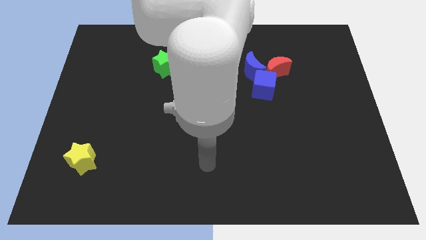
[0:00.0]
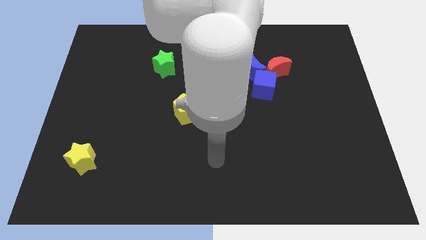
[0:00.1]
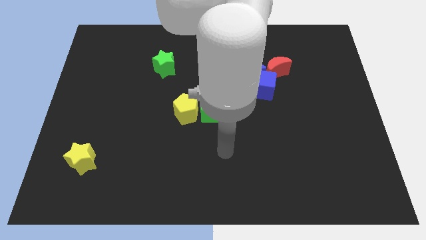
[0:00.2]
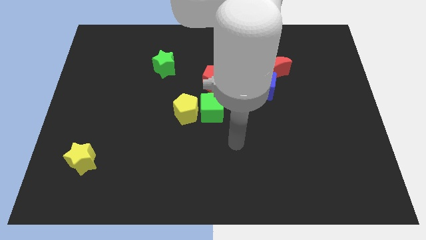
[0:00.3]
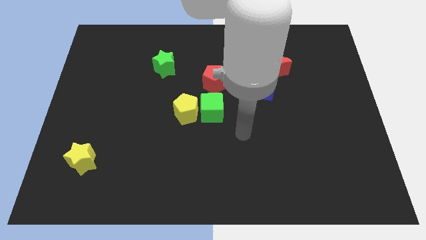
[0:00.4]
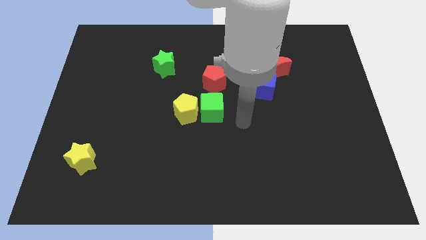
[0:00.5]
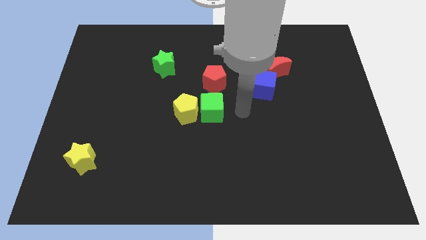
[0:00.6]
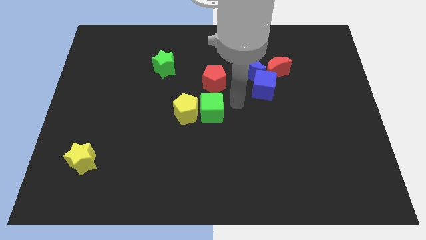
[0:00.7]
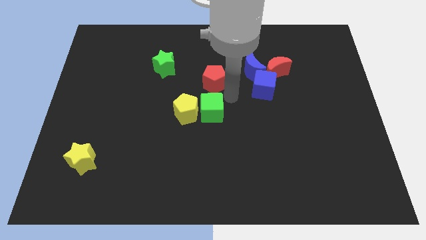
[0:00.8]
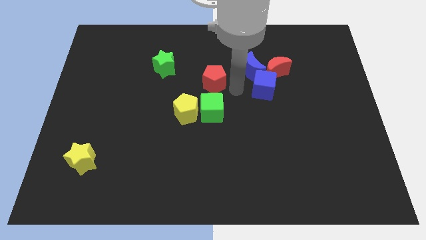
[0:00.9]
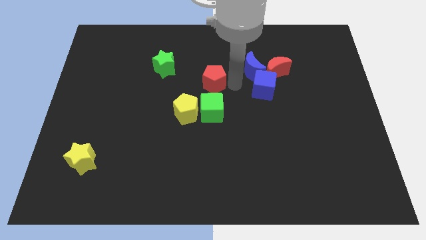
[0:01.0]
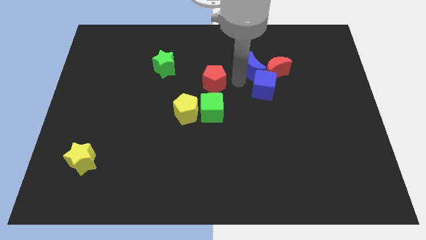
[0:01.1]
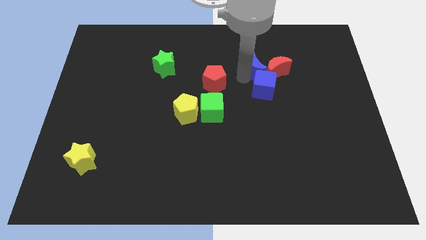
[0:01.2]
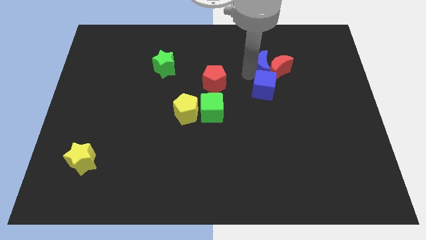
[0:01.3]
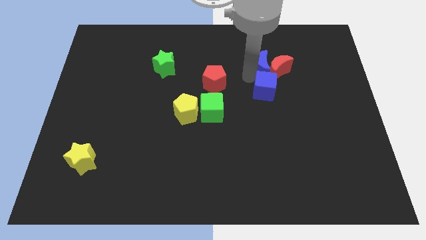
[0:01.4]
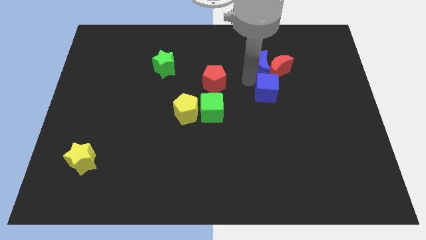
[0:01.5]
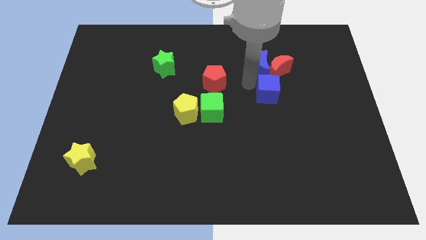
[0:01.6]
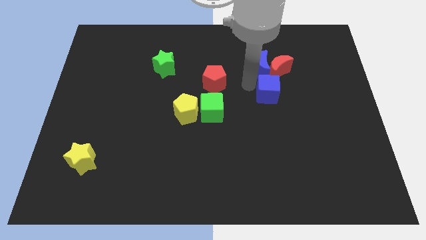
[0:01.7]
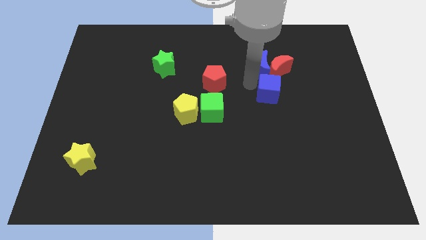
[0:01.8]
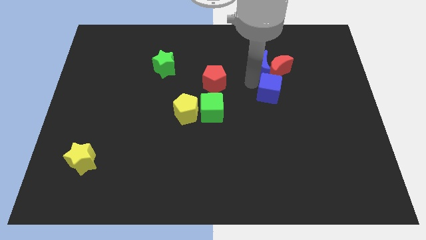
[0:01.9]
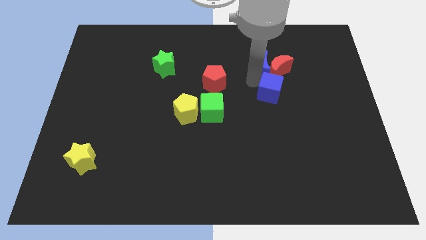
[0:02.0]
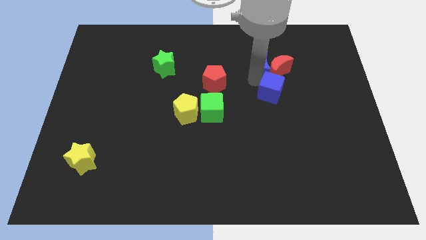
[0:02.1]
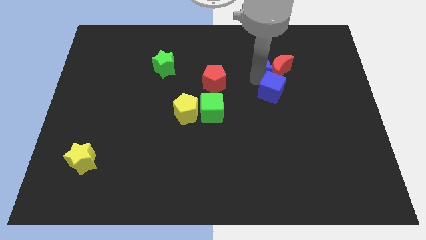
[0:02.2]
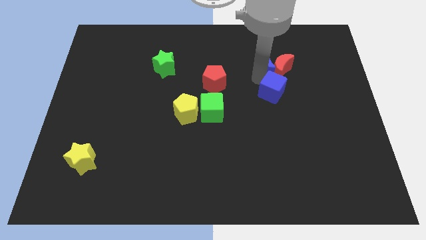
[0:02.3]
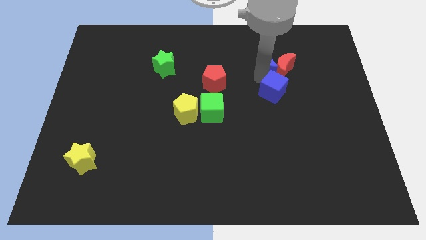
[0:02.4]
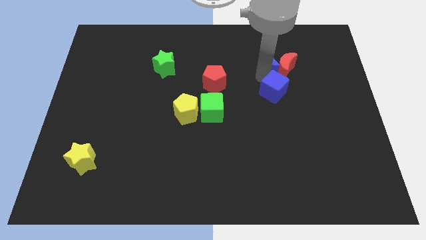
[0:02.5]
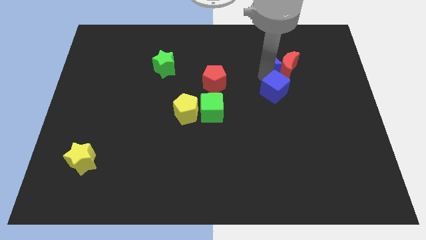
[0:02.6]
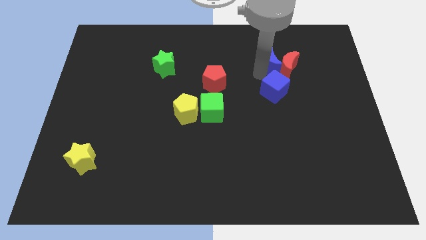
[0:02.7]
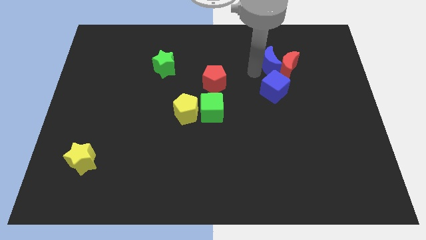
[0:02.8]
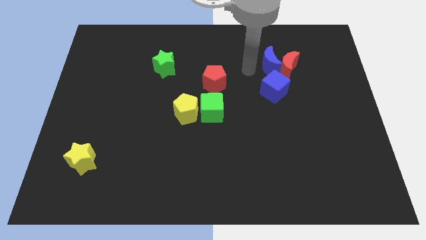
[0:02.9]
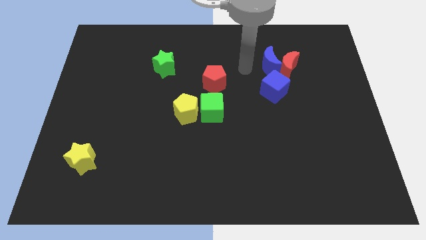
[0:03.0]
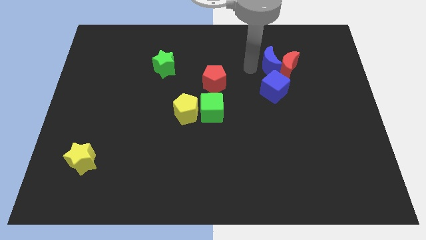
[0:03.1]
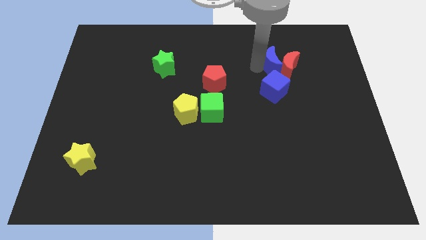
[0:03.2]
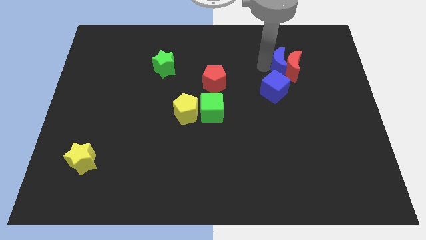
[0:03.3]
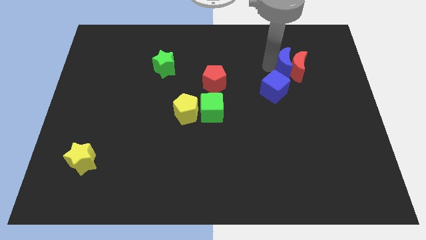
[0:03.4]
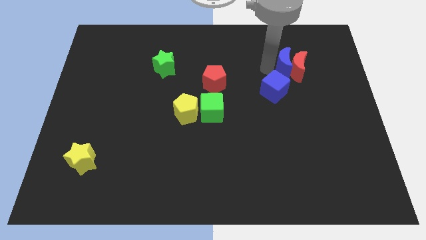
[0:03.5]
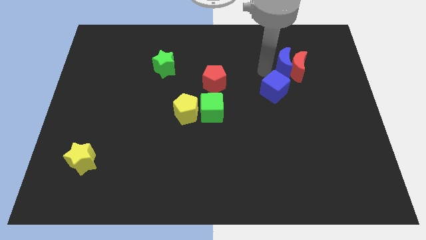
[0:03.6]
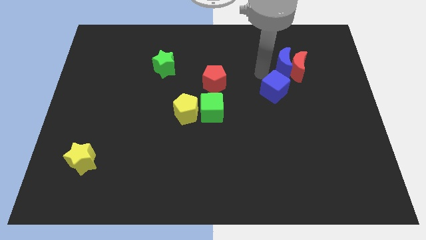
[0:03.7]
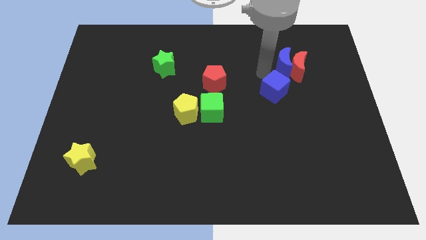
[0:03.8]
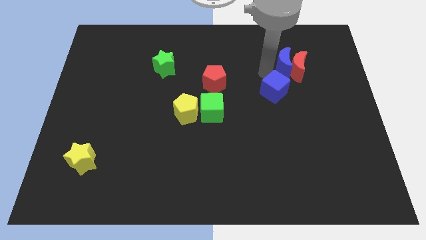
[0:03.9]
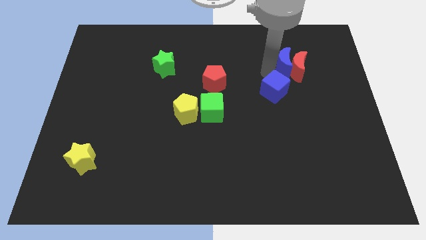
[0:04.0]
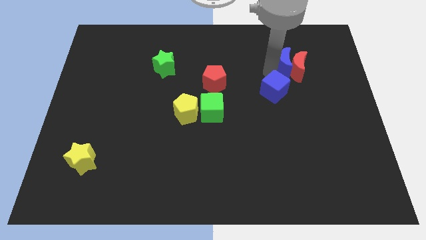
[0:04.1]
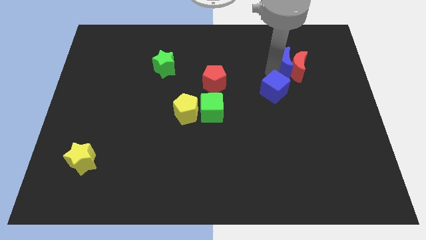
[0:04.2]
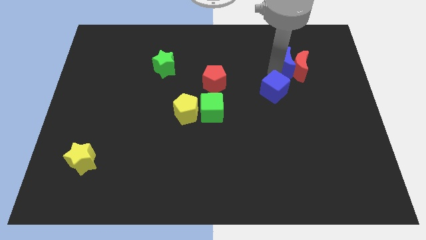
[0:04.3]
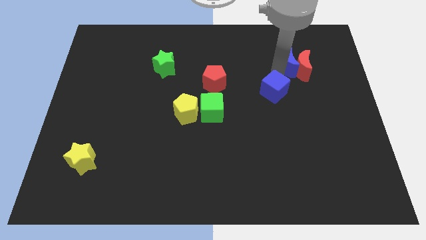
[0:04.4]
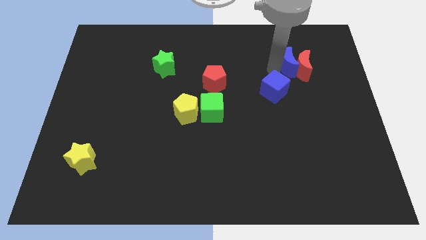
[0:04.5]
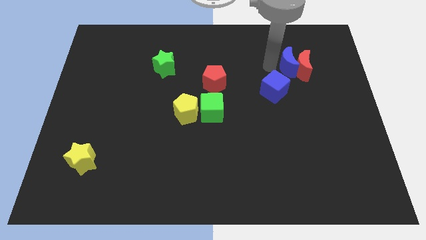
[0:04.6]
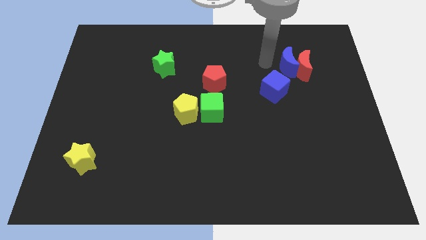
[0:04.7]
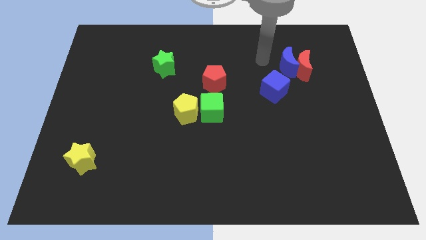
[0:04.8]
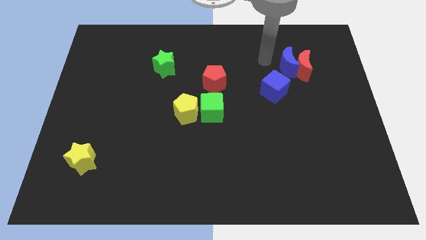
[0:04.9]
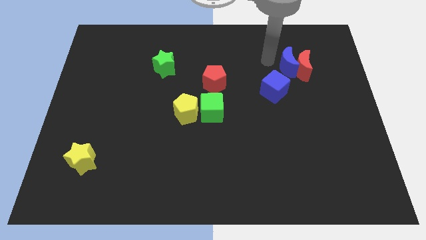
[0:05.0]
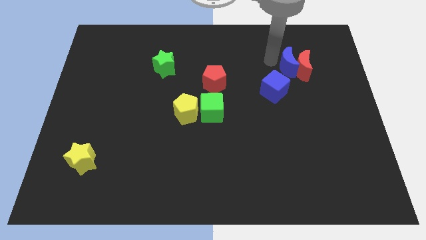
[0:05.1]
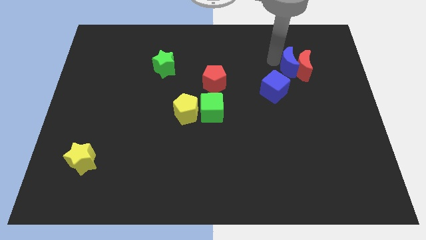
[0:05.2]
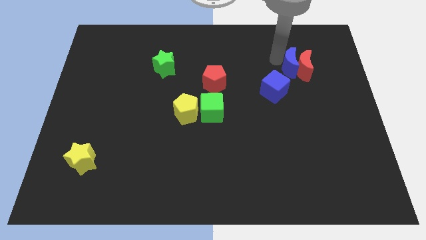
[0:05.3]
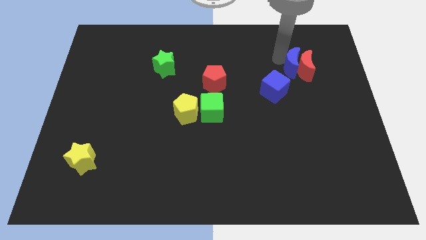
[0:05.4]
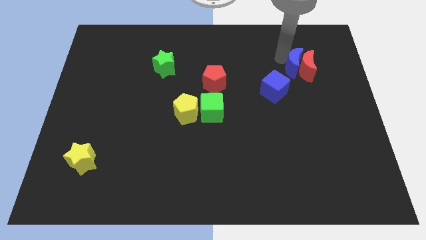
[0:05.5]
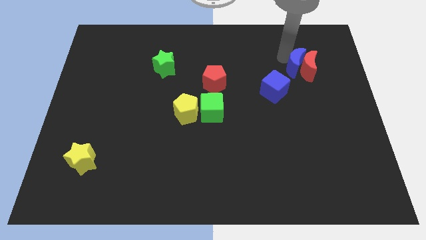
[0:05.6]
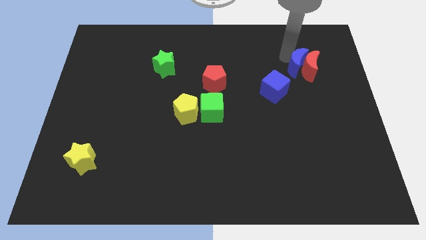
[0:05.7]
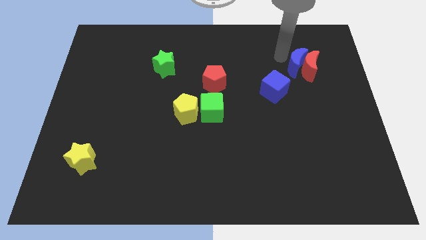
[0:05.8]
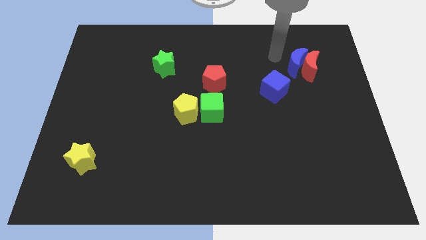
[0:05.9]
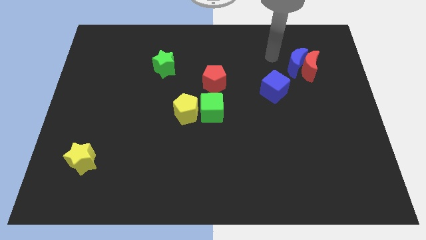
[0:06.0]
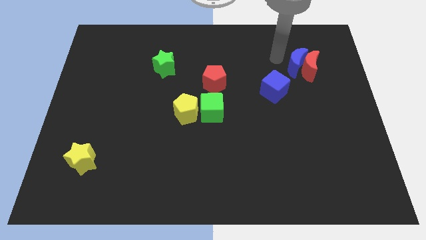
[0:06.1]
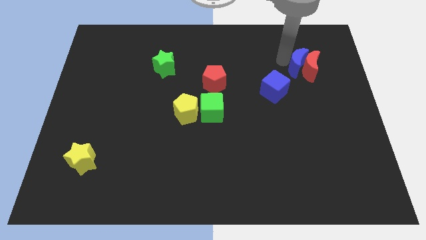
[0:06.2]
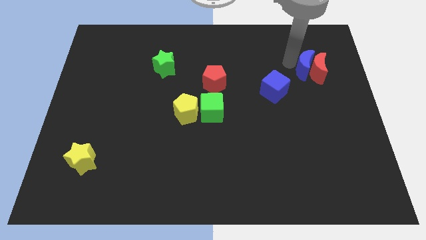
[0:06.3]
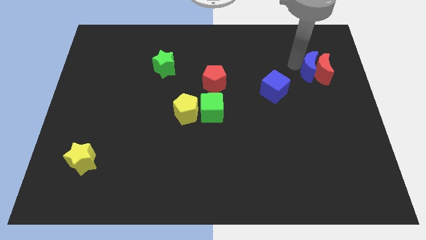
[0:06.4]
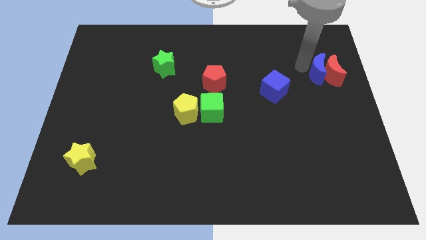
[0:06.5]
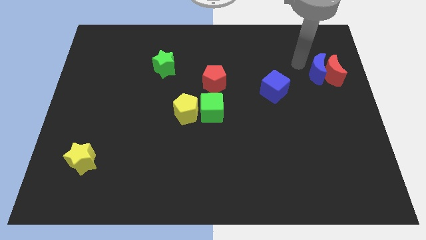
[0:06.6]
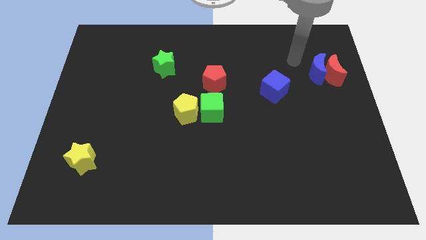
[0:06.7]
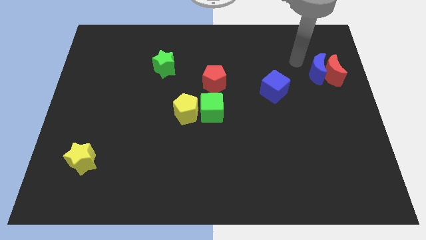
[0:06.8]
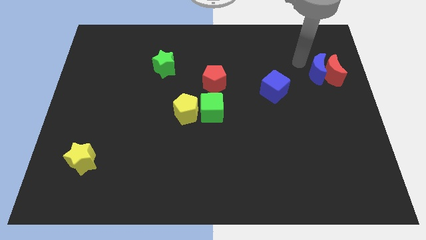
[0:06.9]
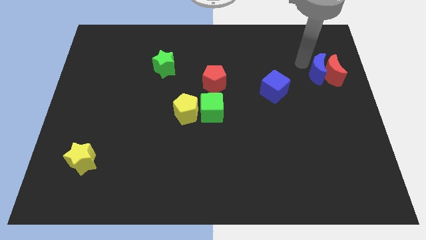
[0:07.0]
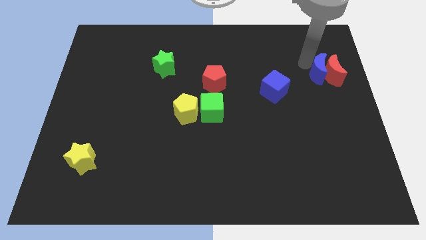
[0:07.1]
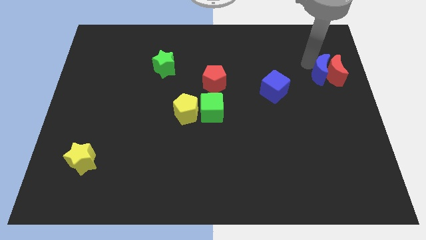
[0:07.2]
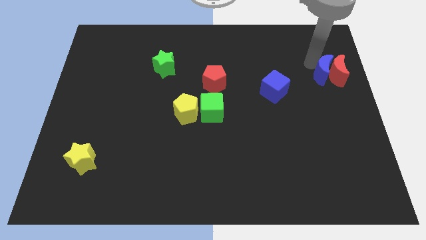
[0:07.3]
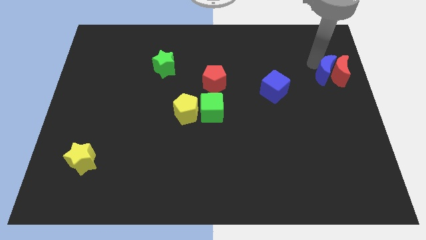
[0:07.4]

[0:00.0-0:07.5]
put the blue moon to the center right
